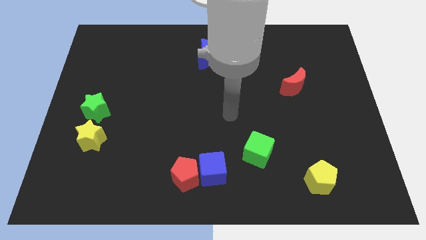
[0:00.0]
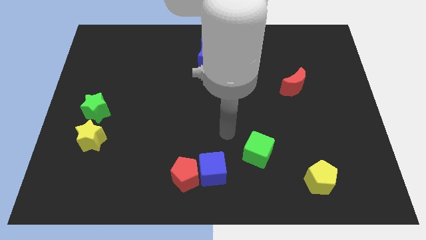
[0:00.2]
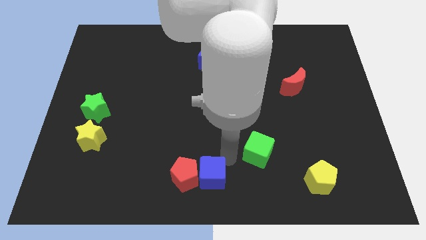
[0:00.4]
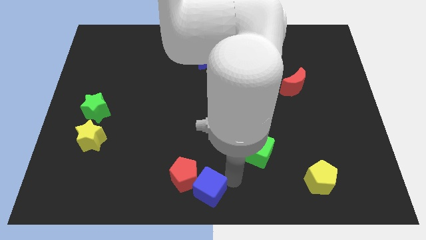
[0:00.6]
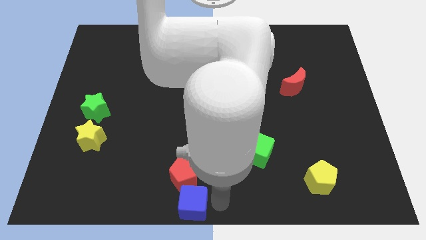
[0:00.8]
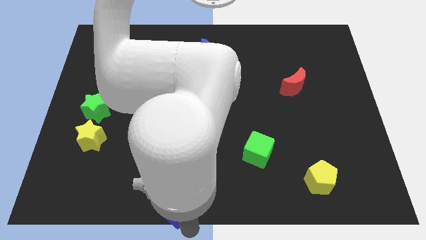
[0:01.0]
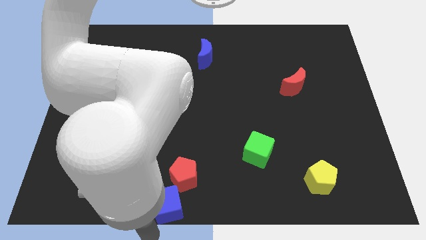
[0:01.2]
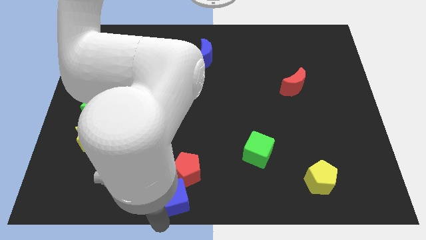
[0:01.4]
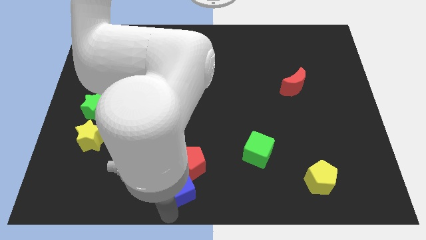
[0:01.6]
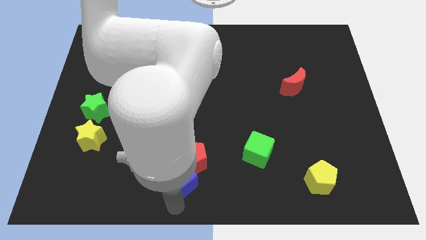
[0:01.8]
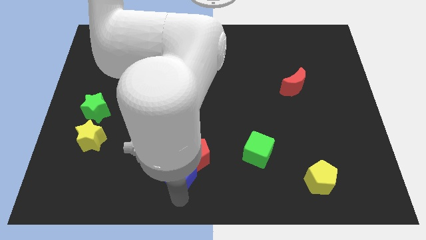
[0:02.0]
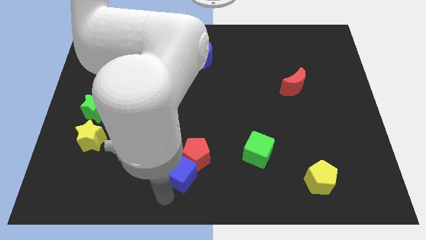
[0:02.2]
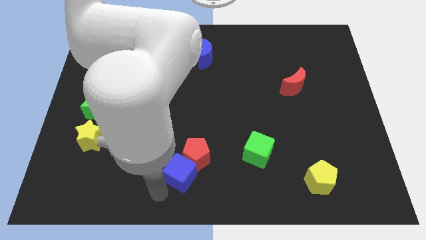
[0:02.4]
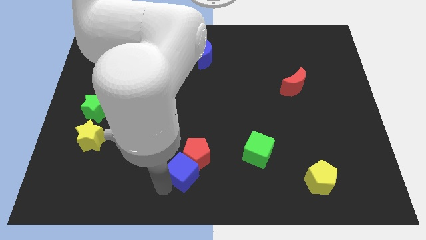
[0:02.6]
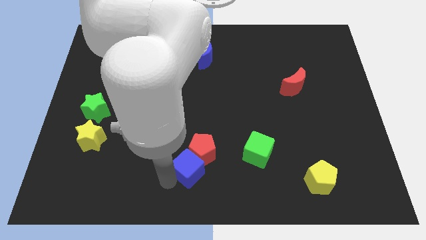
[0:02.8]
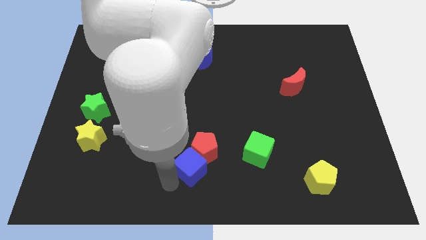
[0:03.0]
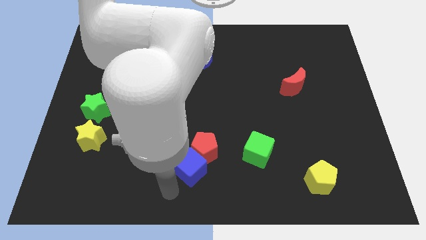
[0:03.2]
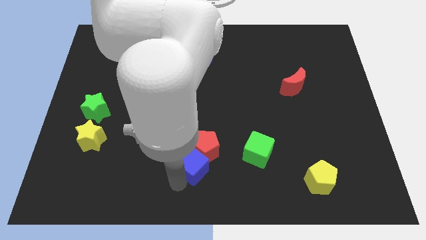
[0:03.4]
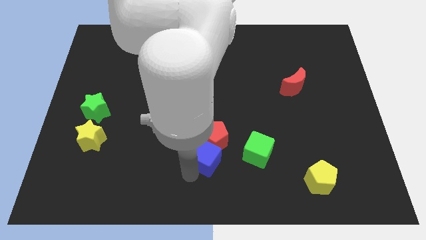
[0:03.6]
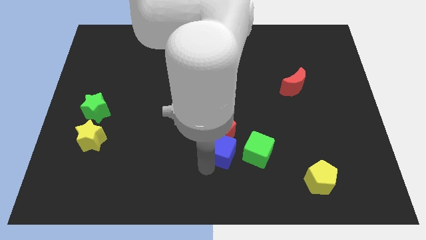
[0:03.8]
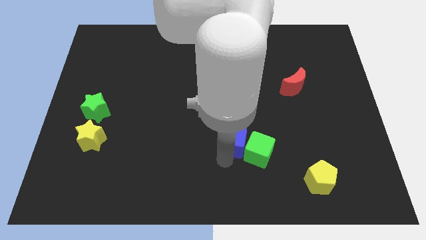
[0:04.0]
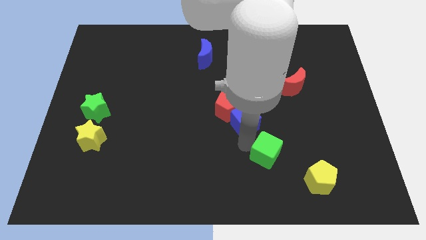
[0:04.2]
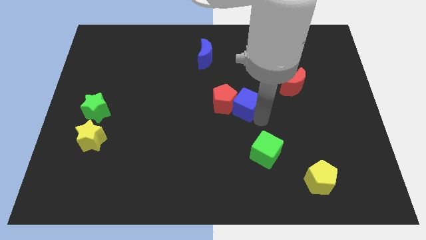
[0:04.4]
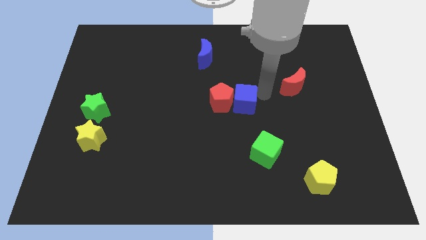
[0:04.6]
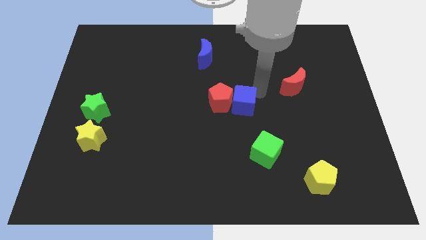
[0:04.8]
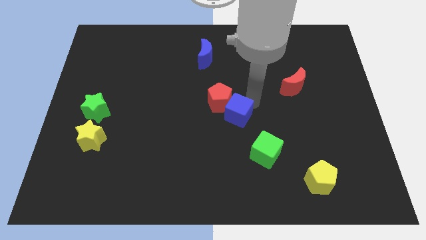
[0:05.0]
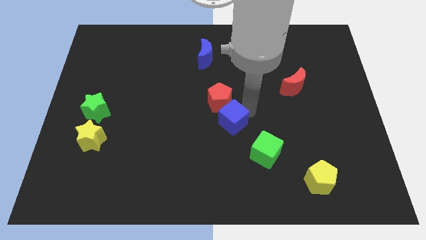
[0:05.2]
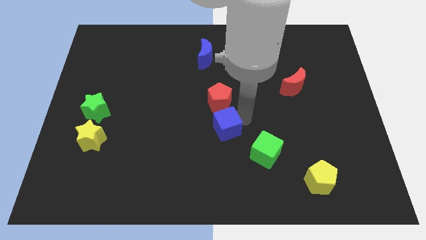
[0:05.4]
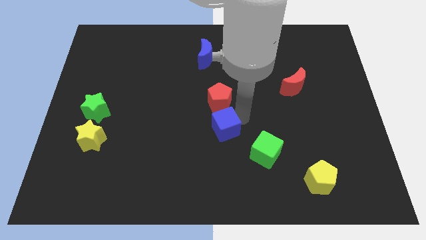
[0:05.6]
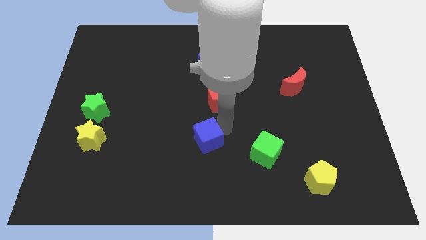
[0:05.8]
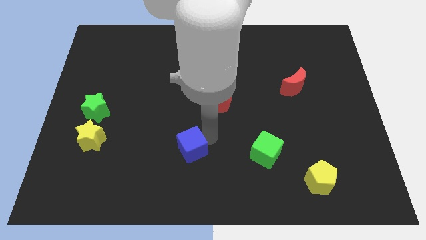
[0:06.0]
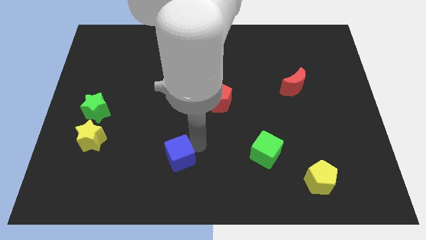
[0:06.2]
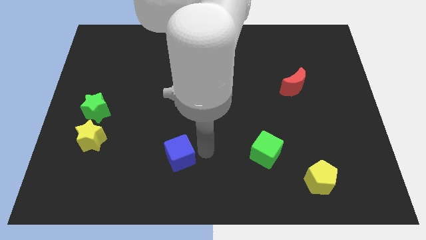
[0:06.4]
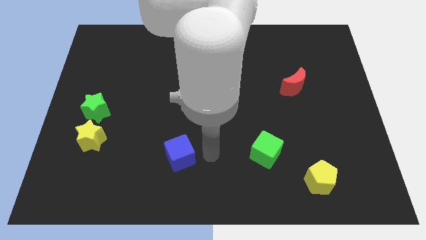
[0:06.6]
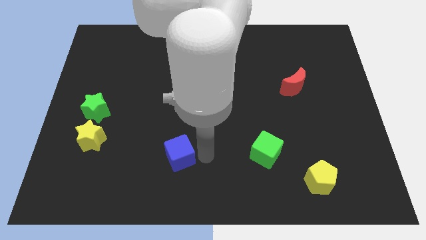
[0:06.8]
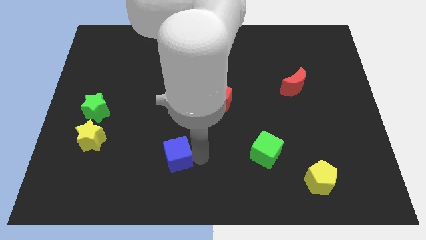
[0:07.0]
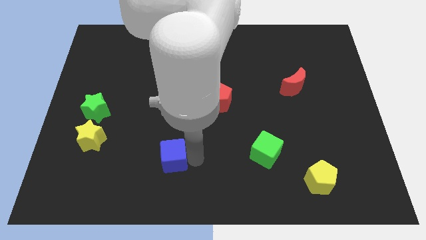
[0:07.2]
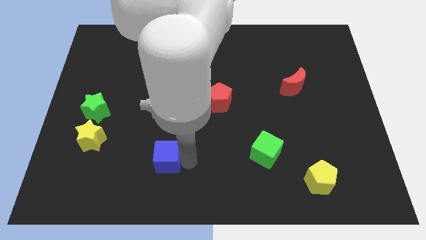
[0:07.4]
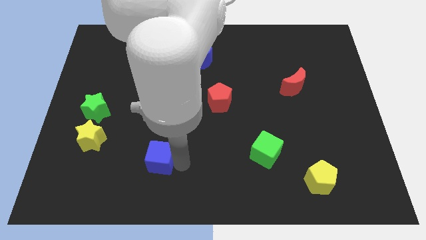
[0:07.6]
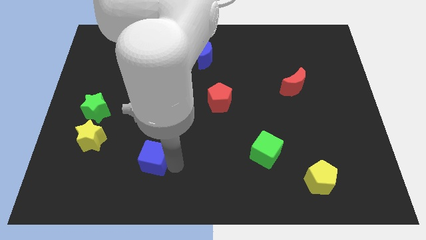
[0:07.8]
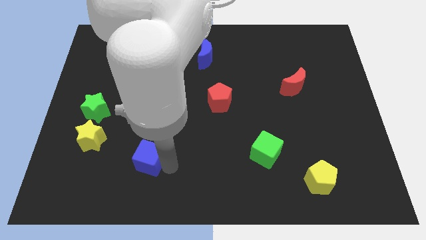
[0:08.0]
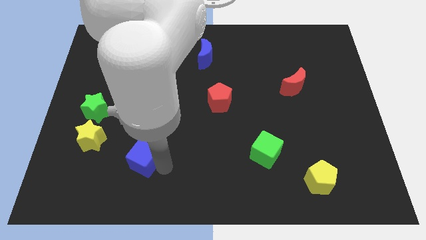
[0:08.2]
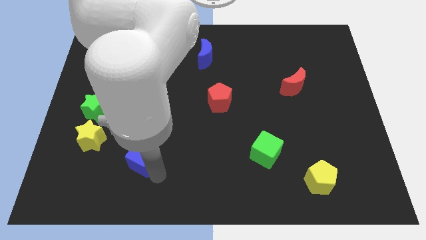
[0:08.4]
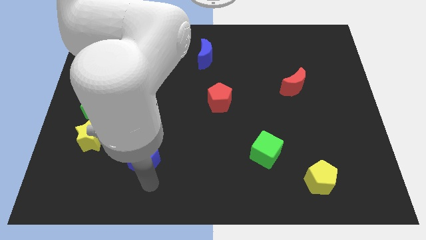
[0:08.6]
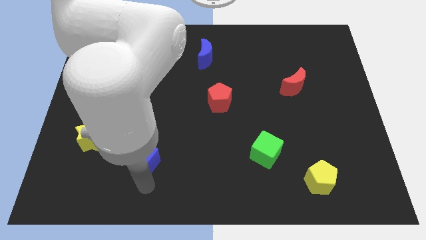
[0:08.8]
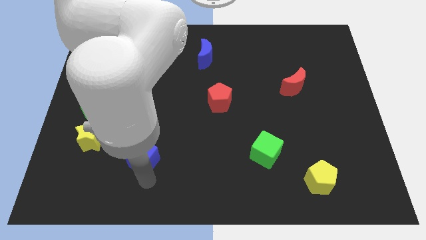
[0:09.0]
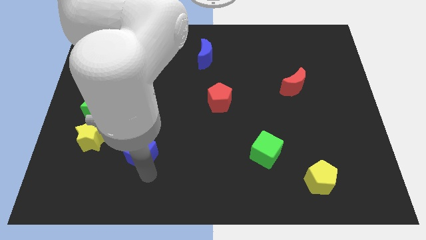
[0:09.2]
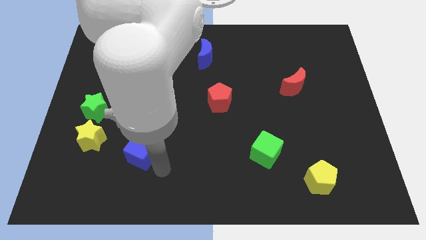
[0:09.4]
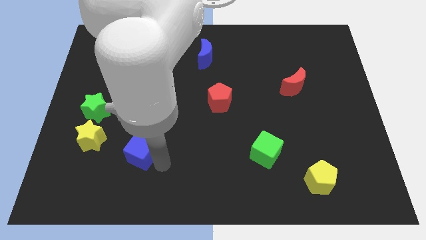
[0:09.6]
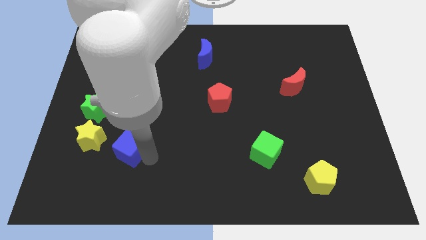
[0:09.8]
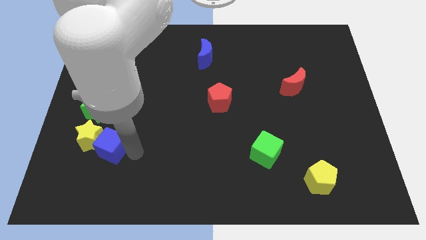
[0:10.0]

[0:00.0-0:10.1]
push the blue cube towards the yellow star

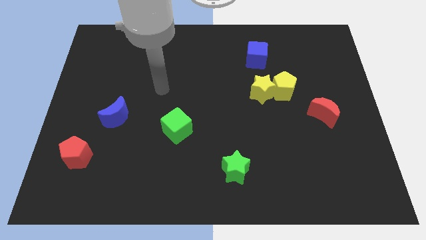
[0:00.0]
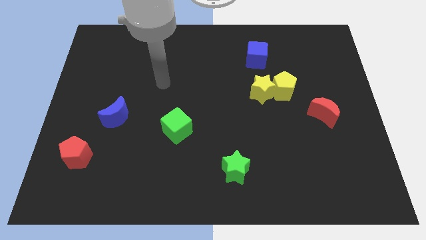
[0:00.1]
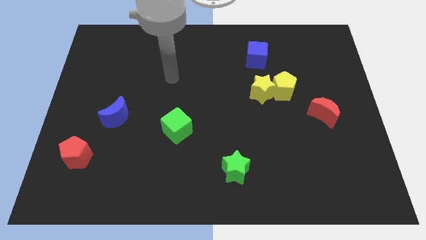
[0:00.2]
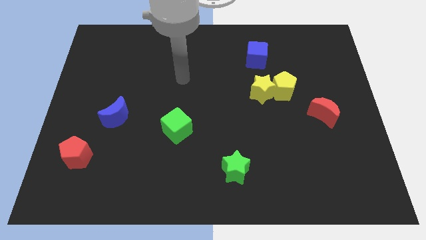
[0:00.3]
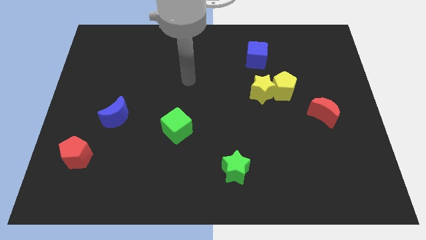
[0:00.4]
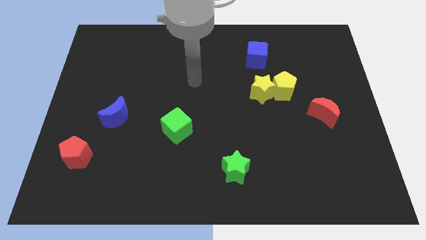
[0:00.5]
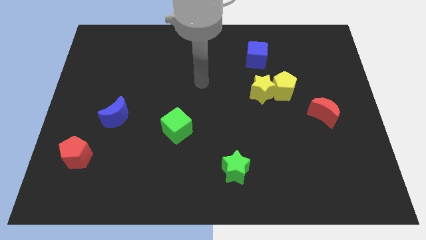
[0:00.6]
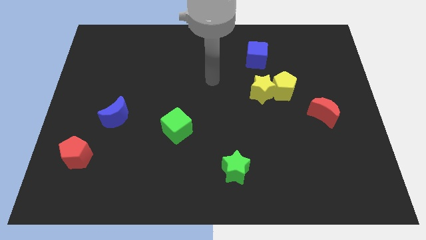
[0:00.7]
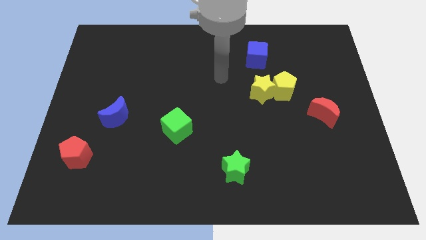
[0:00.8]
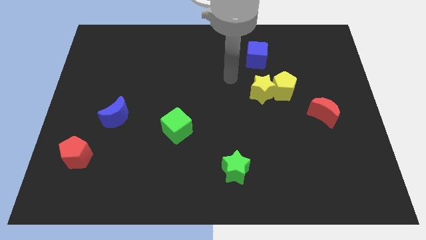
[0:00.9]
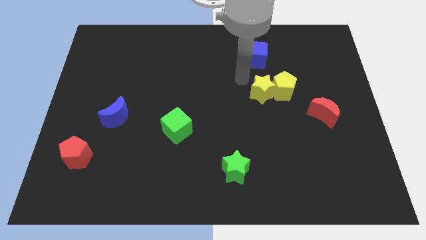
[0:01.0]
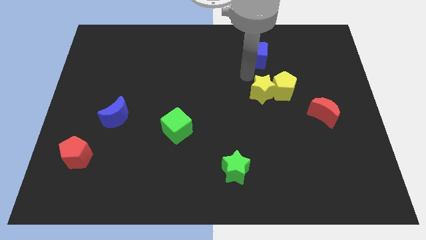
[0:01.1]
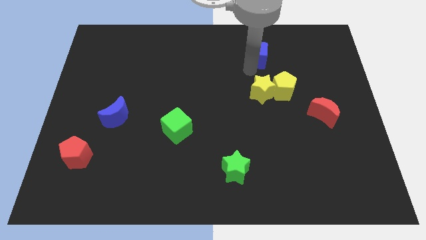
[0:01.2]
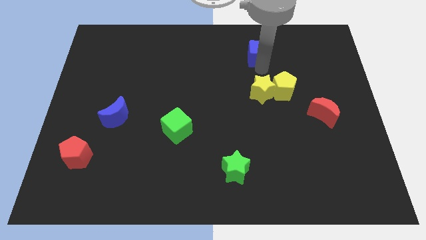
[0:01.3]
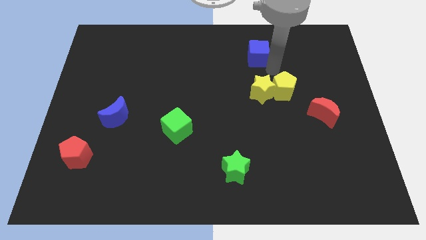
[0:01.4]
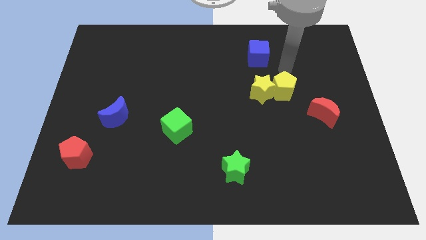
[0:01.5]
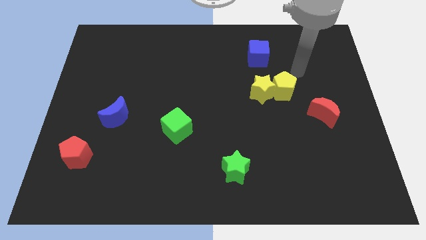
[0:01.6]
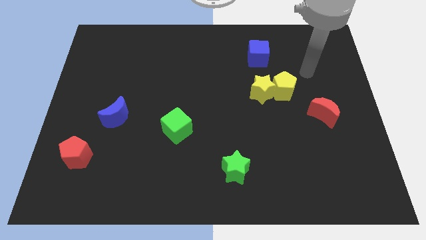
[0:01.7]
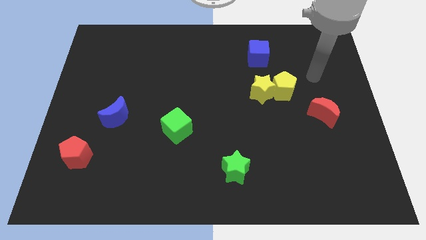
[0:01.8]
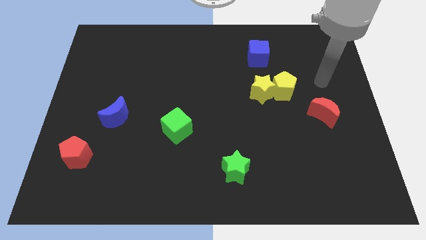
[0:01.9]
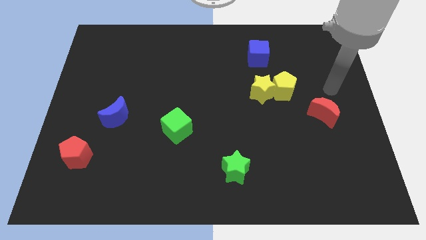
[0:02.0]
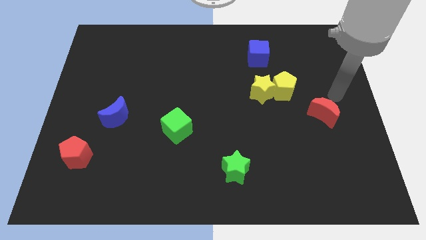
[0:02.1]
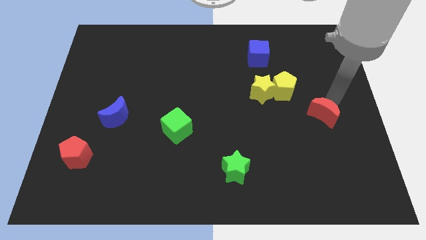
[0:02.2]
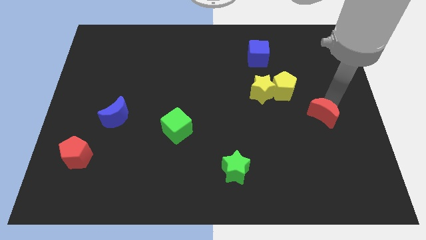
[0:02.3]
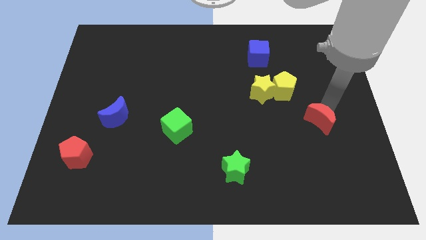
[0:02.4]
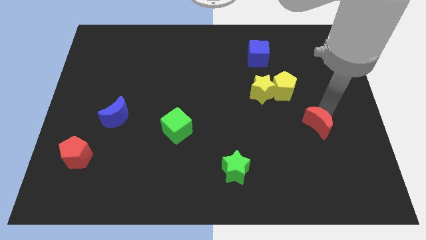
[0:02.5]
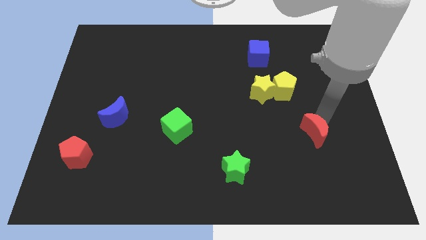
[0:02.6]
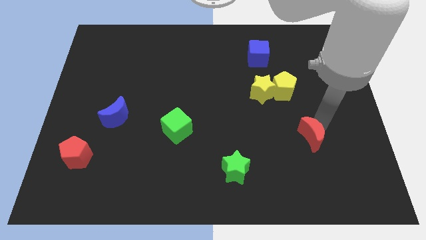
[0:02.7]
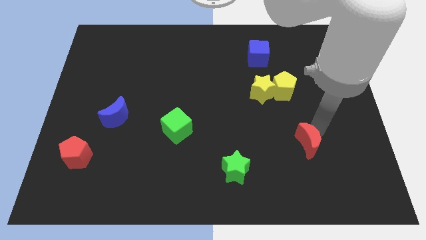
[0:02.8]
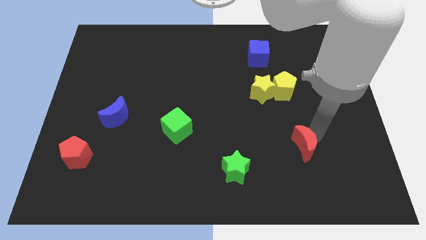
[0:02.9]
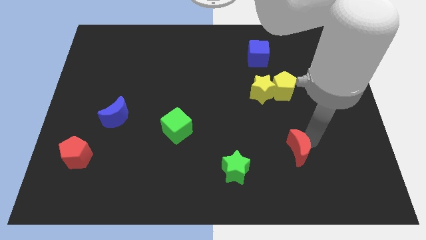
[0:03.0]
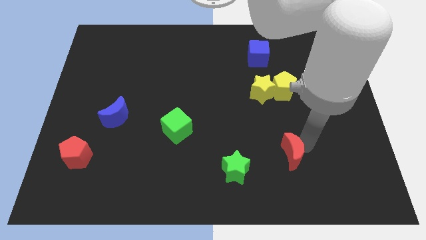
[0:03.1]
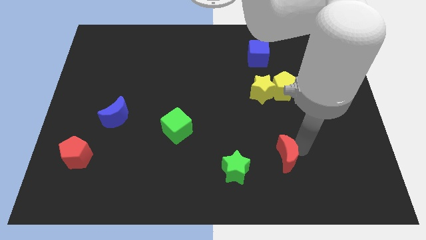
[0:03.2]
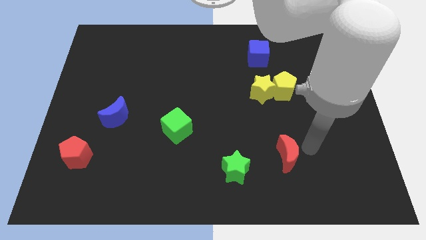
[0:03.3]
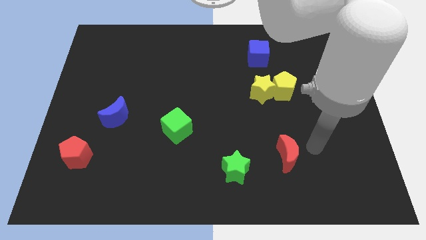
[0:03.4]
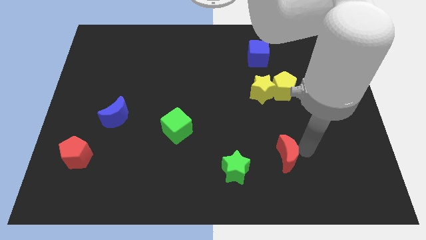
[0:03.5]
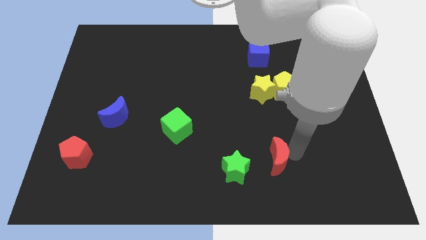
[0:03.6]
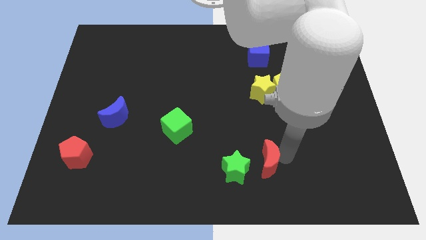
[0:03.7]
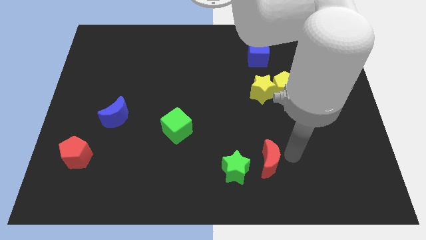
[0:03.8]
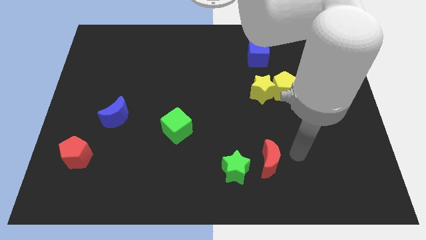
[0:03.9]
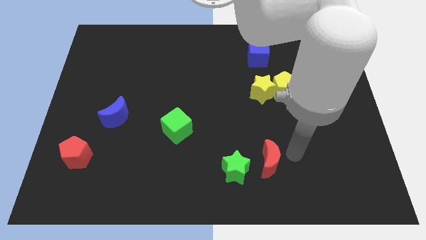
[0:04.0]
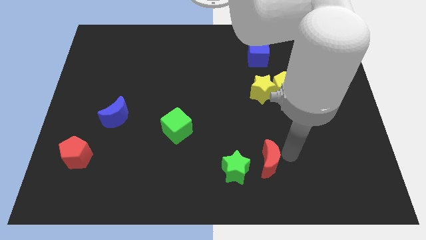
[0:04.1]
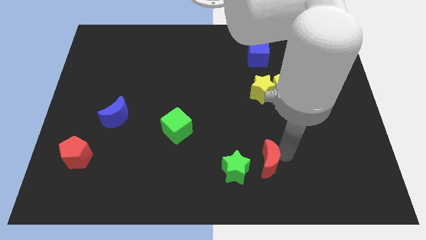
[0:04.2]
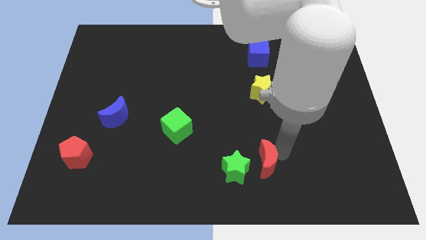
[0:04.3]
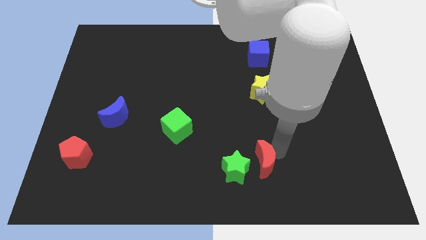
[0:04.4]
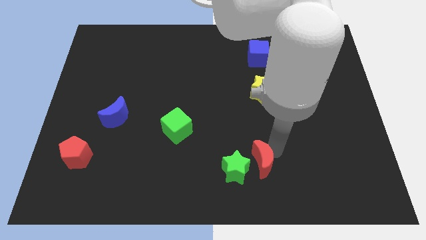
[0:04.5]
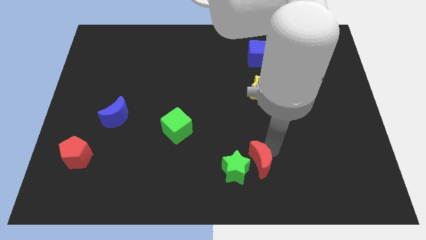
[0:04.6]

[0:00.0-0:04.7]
push the red moon towards the green star
